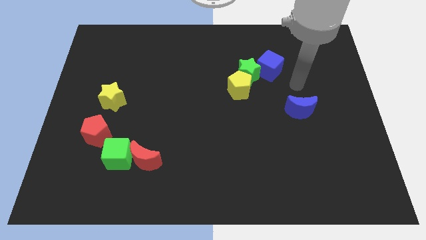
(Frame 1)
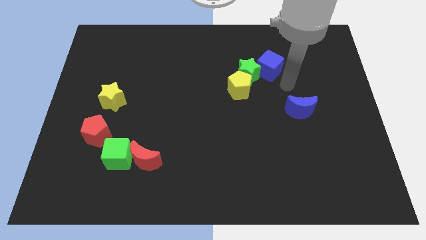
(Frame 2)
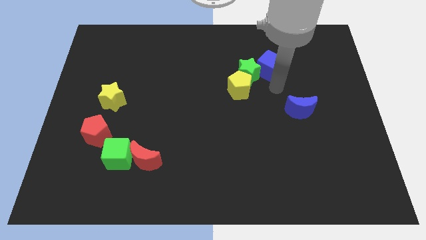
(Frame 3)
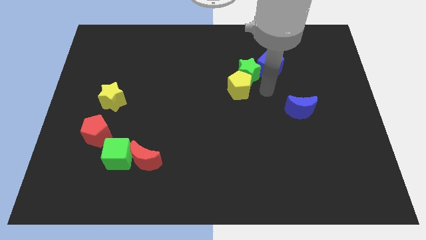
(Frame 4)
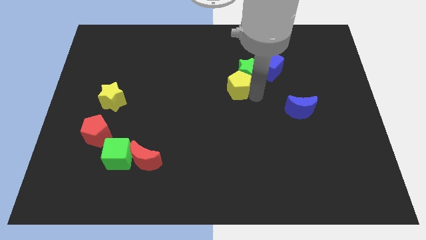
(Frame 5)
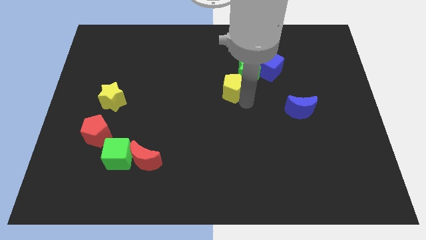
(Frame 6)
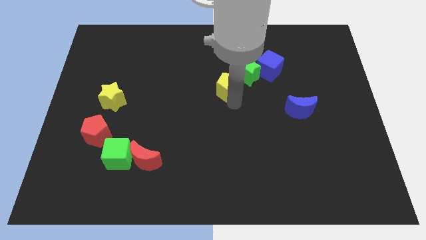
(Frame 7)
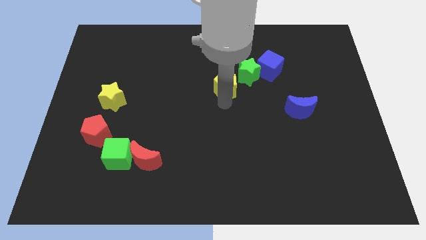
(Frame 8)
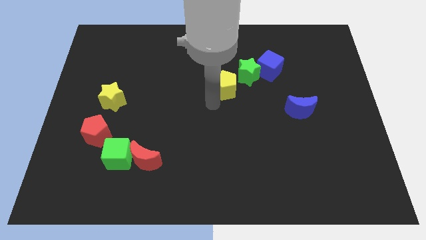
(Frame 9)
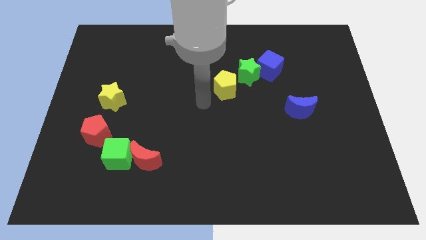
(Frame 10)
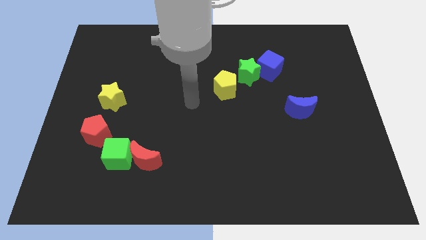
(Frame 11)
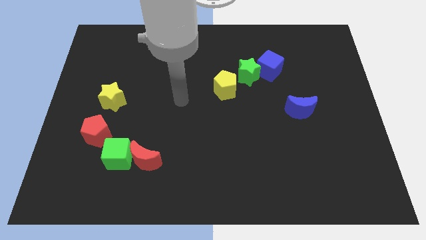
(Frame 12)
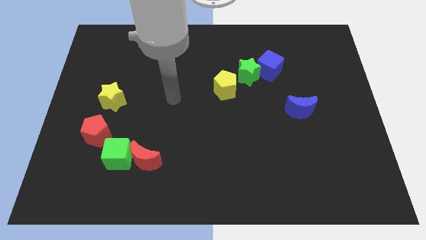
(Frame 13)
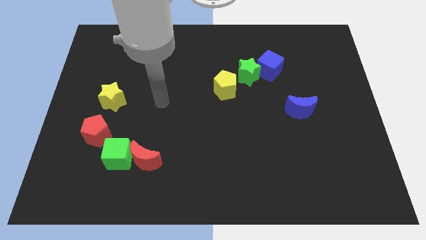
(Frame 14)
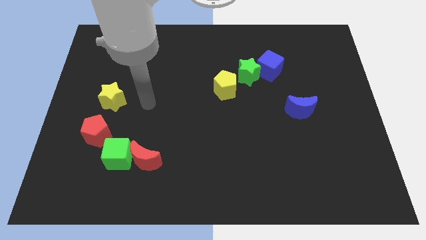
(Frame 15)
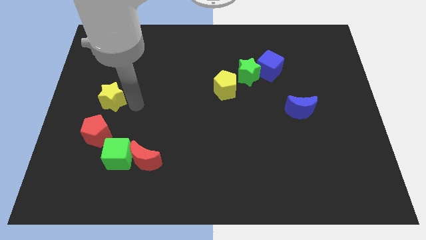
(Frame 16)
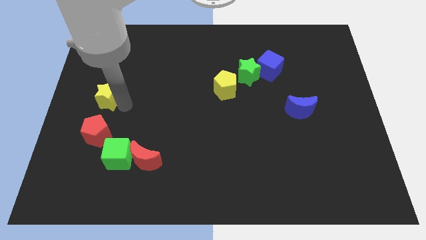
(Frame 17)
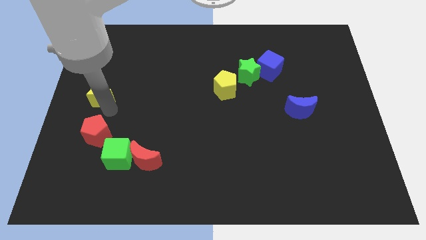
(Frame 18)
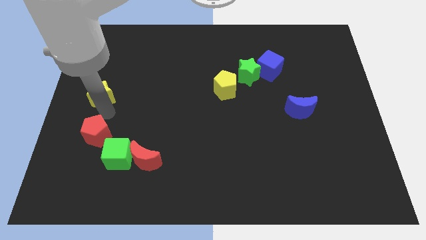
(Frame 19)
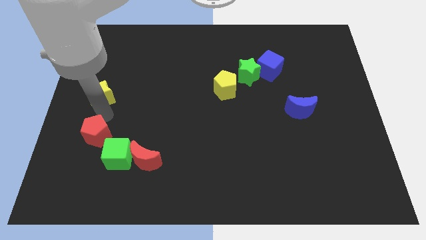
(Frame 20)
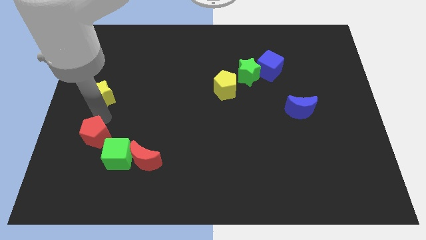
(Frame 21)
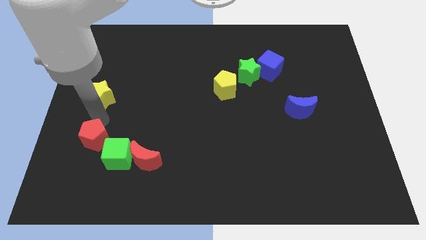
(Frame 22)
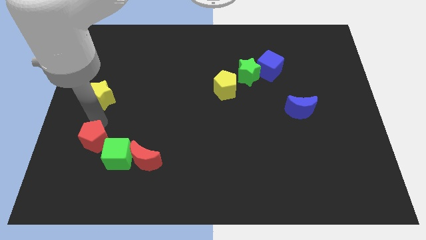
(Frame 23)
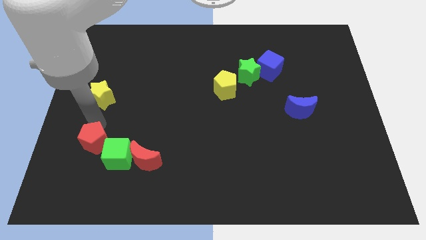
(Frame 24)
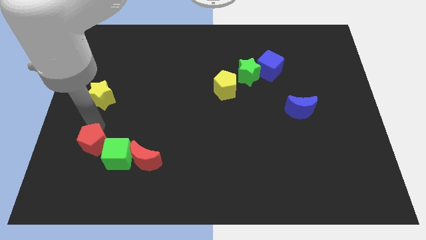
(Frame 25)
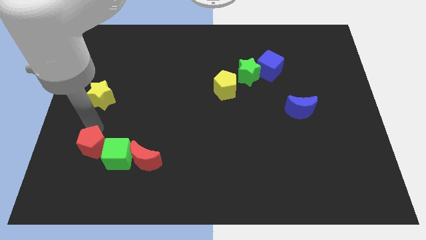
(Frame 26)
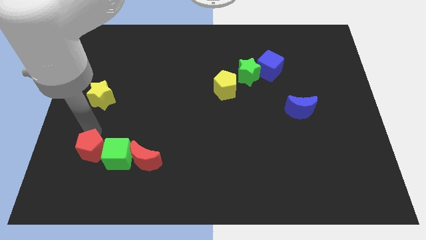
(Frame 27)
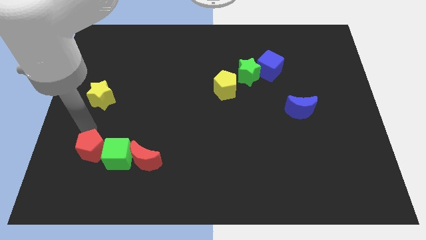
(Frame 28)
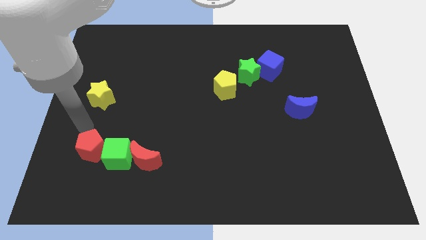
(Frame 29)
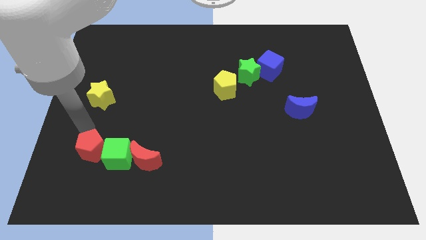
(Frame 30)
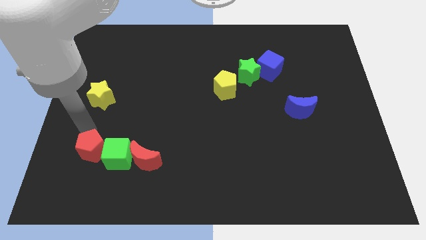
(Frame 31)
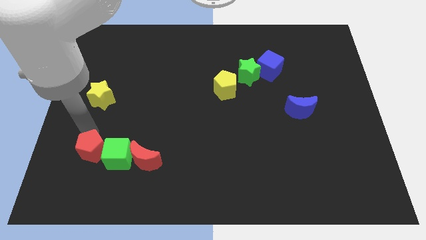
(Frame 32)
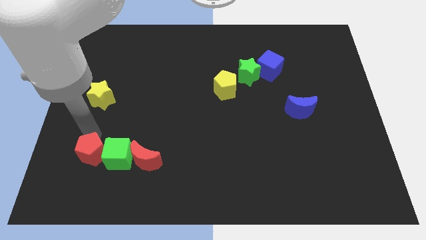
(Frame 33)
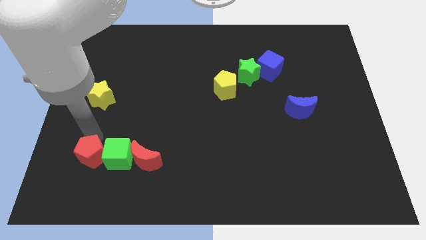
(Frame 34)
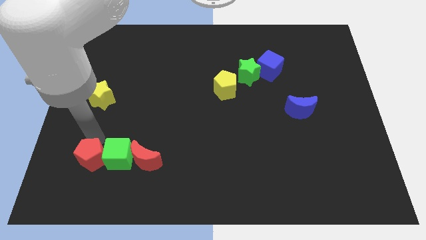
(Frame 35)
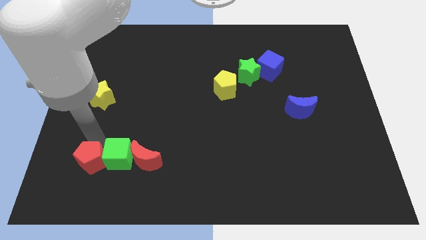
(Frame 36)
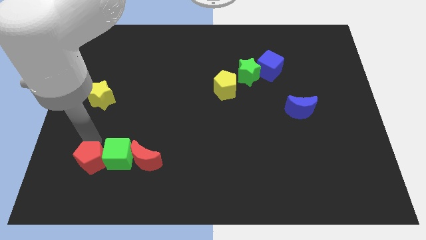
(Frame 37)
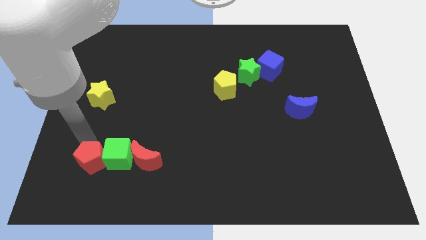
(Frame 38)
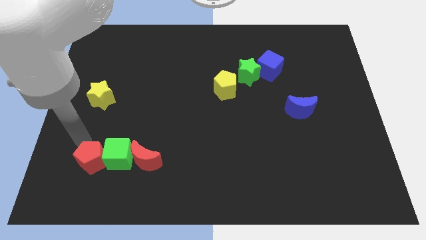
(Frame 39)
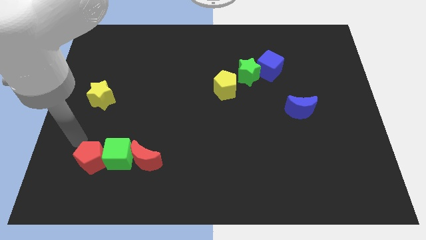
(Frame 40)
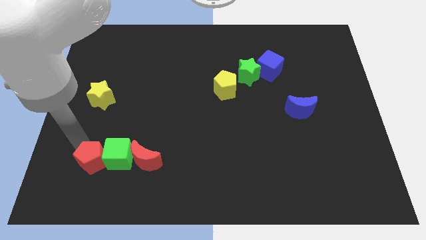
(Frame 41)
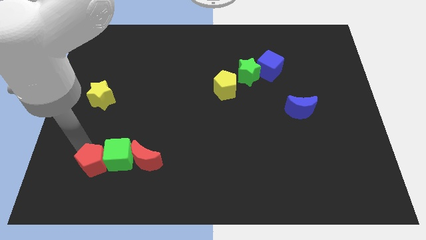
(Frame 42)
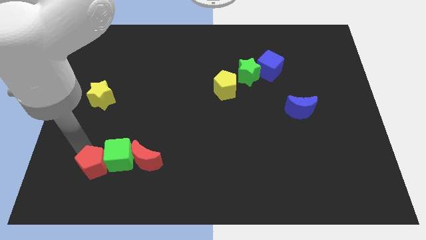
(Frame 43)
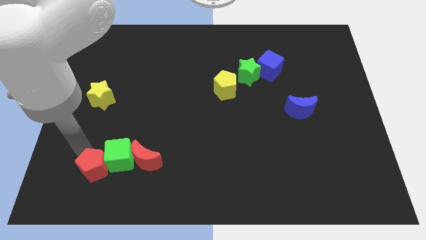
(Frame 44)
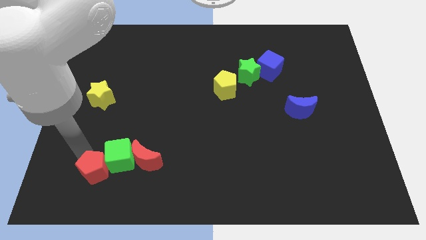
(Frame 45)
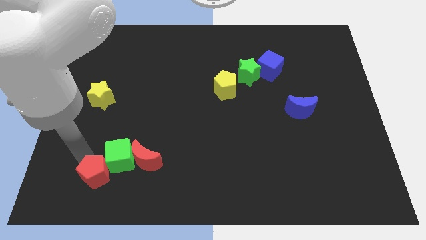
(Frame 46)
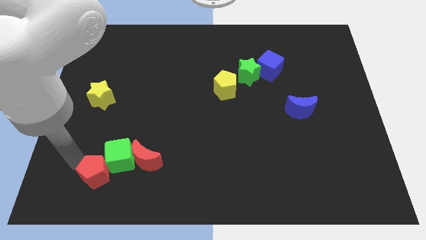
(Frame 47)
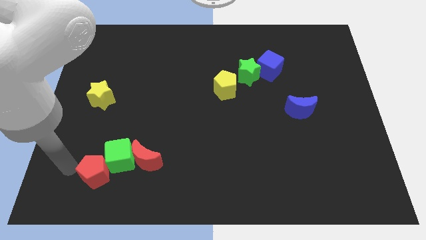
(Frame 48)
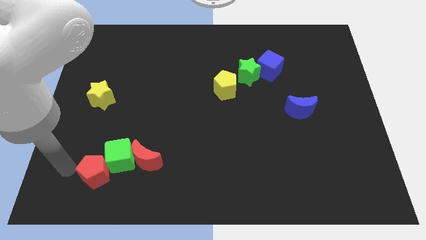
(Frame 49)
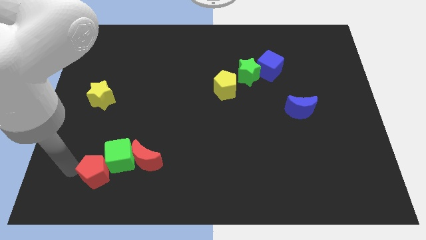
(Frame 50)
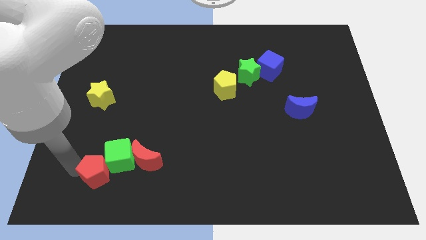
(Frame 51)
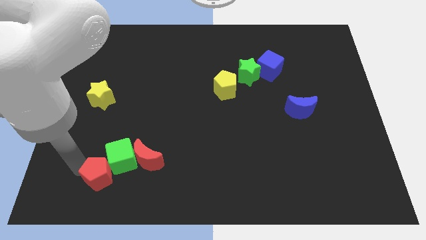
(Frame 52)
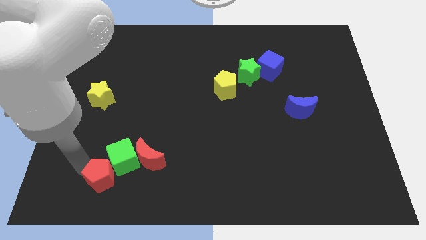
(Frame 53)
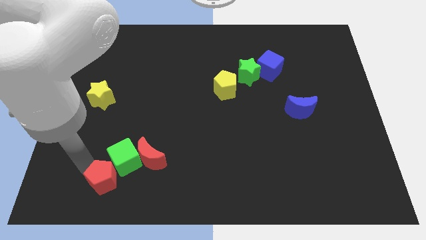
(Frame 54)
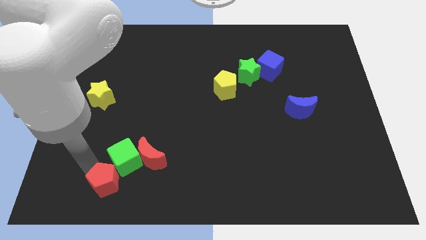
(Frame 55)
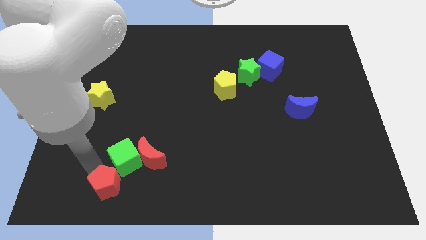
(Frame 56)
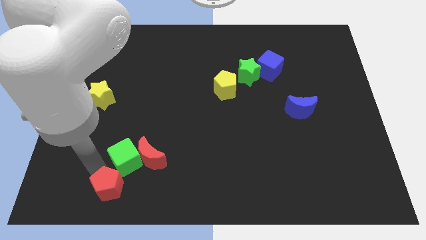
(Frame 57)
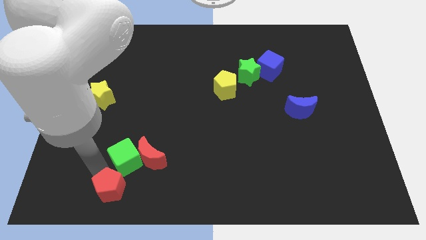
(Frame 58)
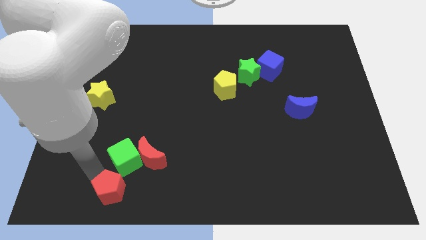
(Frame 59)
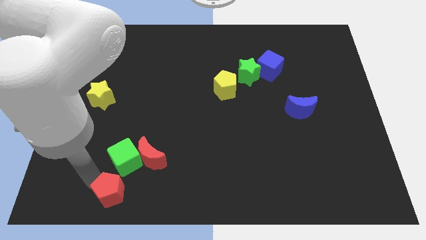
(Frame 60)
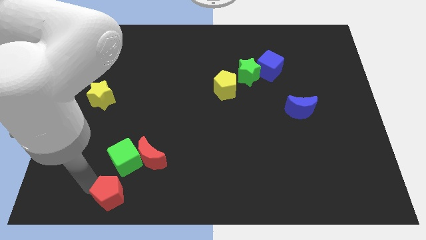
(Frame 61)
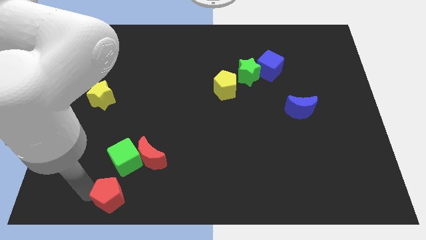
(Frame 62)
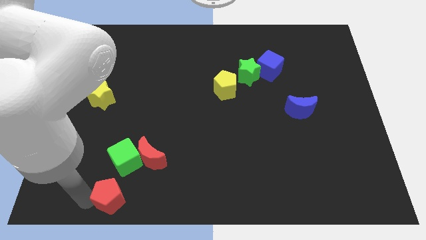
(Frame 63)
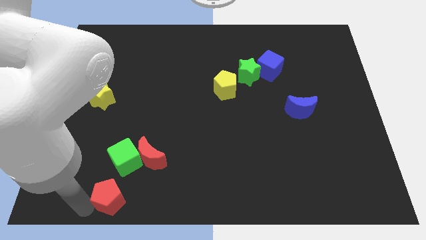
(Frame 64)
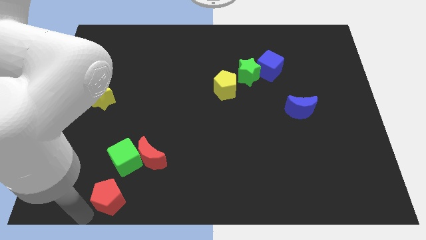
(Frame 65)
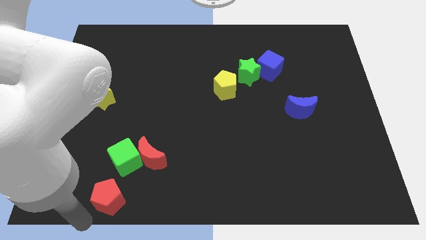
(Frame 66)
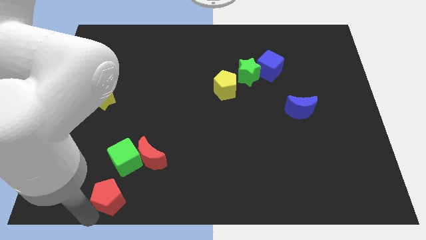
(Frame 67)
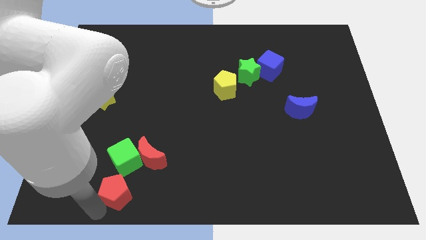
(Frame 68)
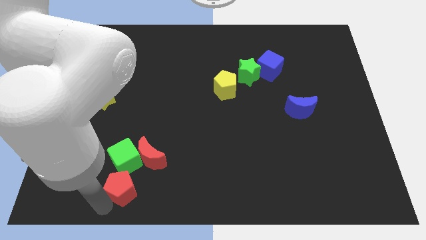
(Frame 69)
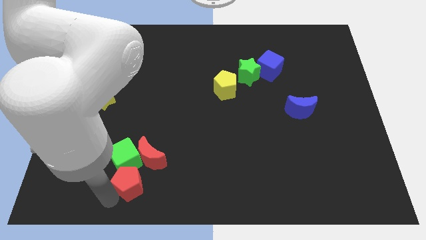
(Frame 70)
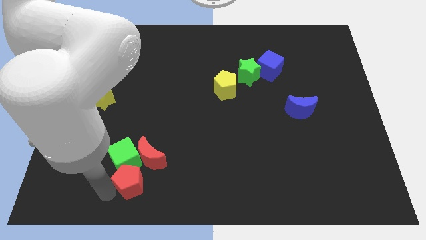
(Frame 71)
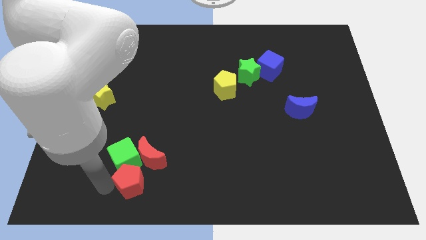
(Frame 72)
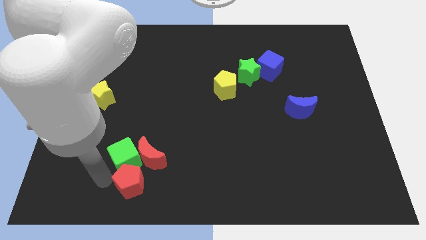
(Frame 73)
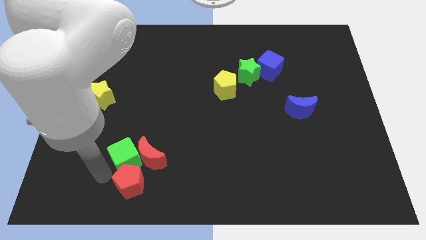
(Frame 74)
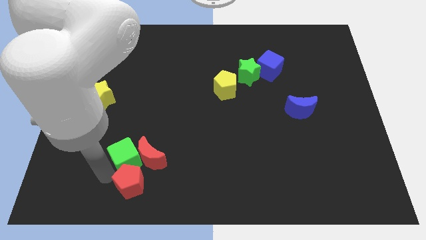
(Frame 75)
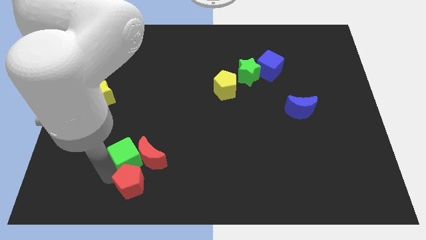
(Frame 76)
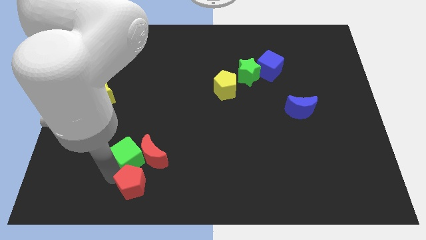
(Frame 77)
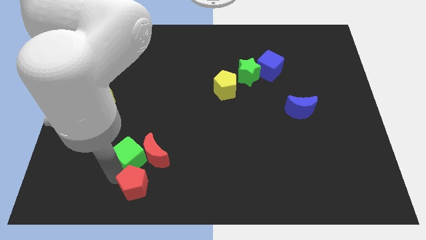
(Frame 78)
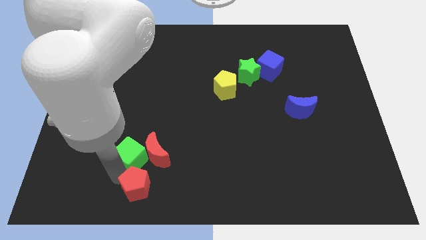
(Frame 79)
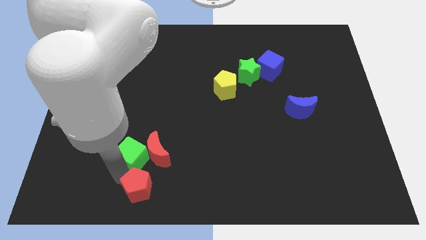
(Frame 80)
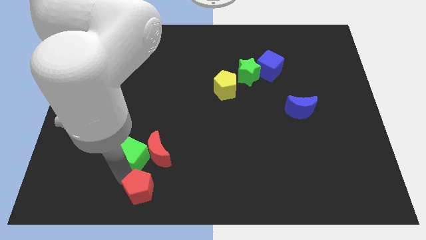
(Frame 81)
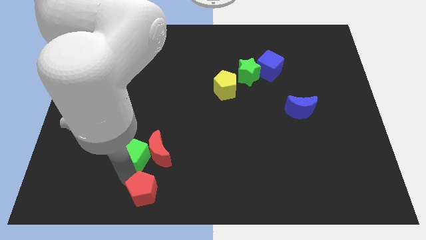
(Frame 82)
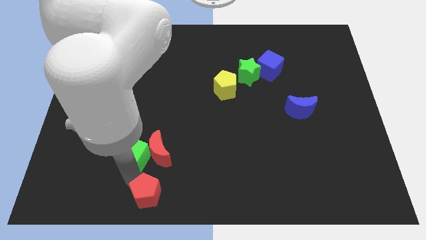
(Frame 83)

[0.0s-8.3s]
put the red pentagon to the bottom
